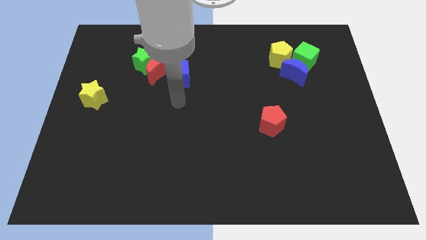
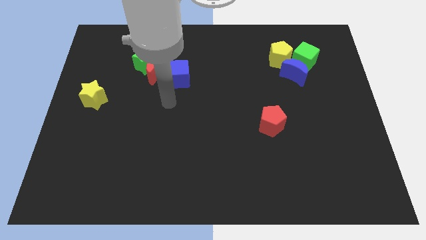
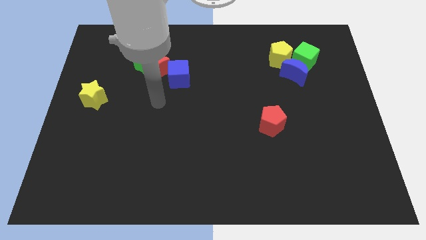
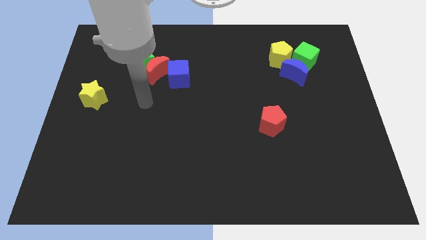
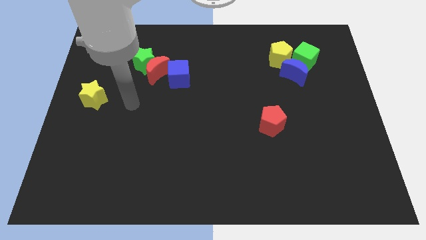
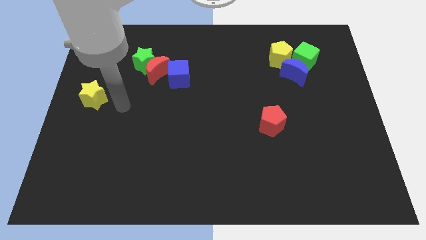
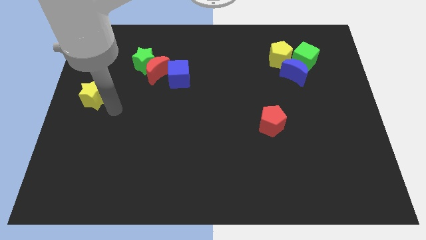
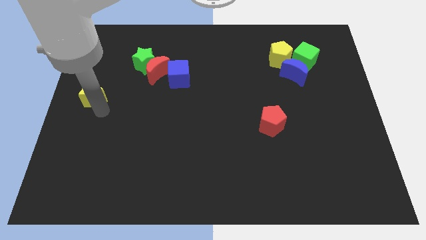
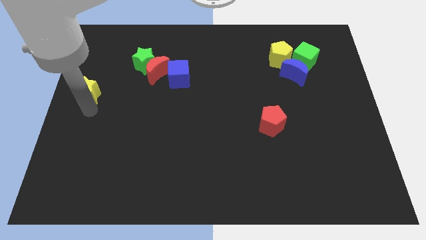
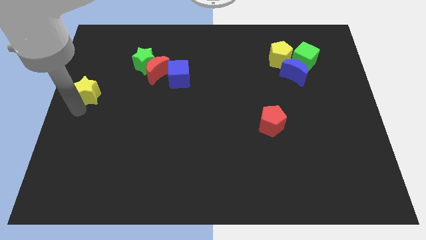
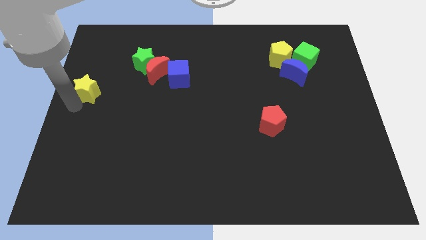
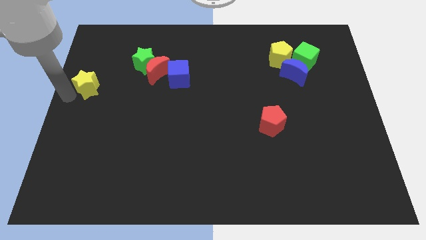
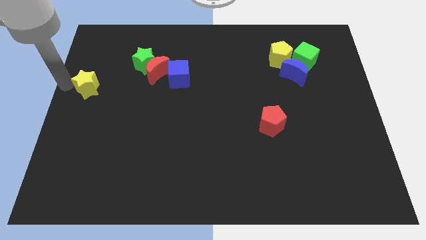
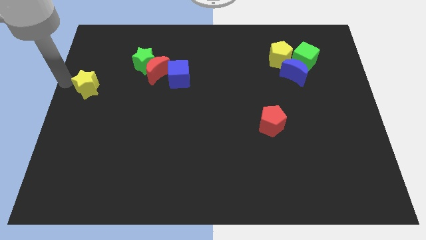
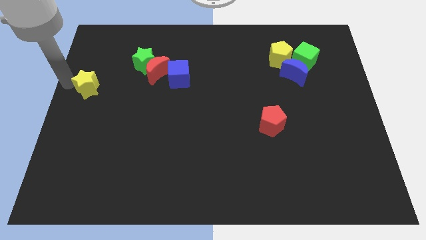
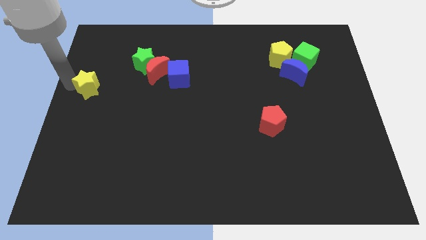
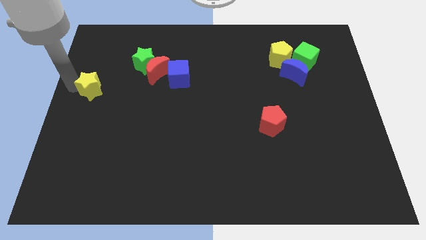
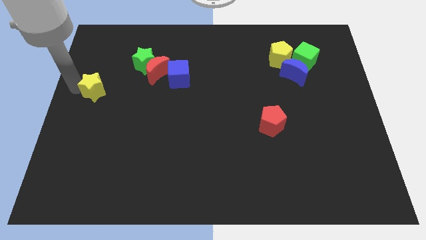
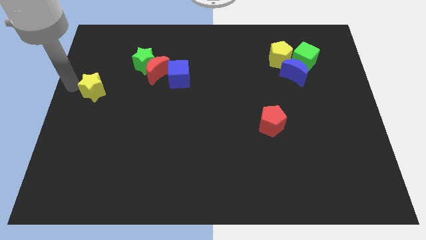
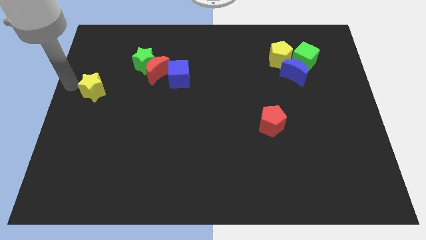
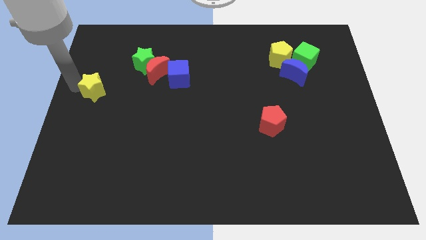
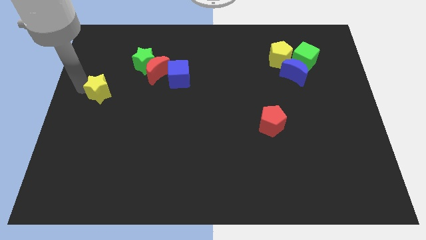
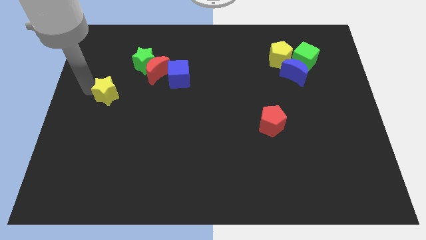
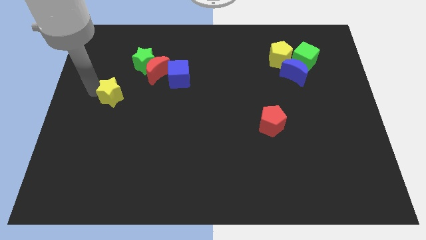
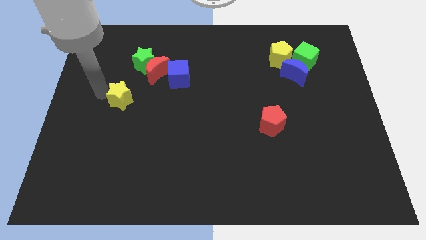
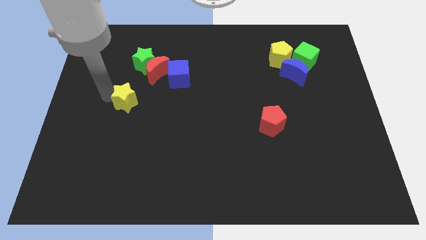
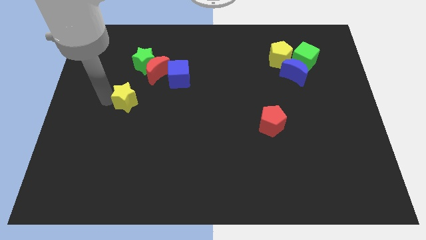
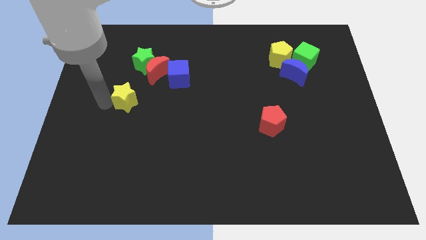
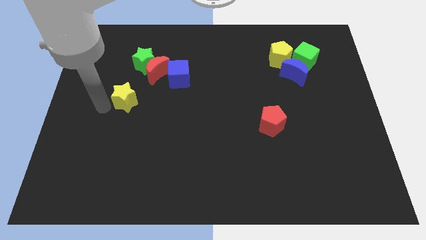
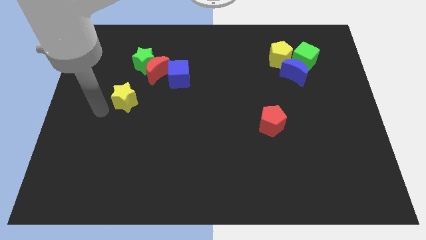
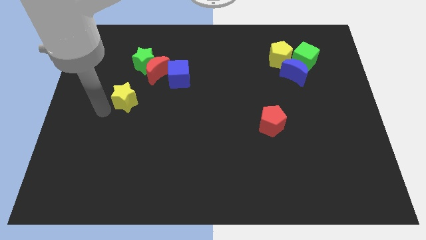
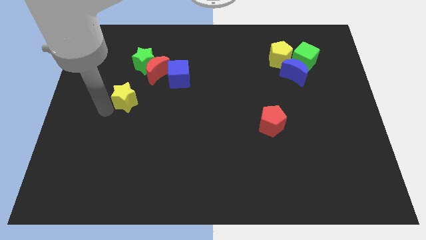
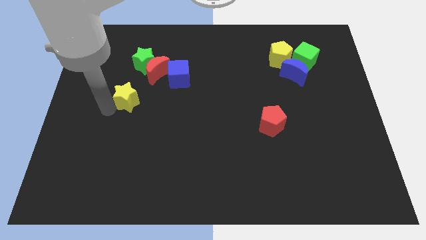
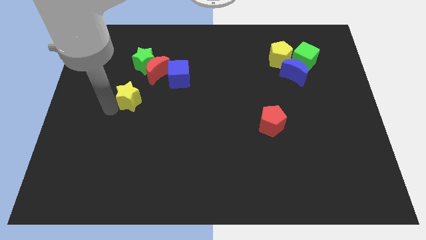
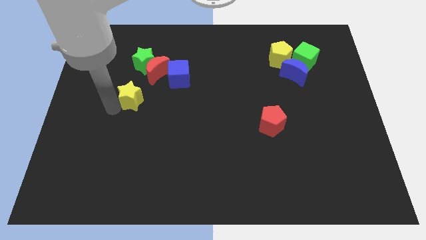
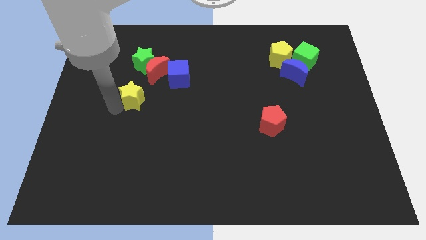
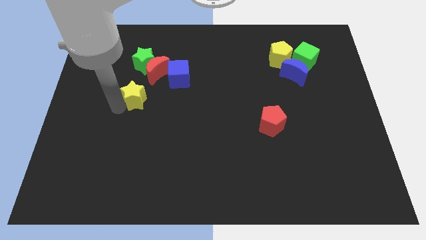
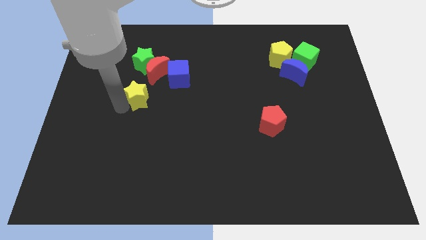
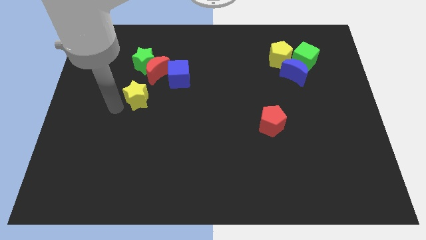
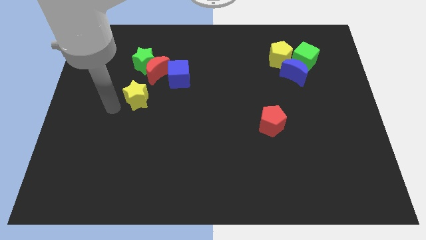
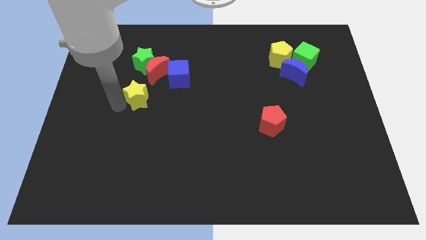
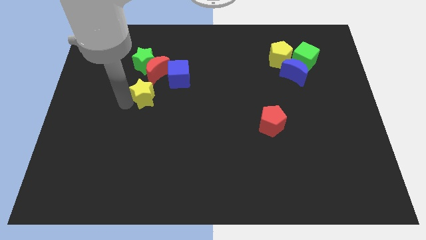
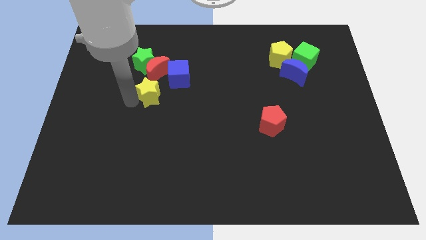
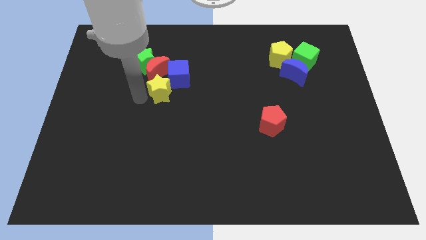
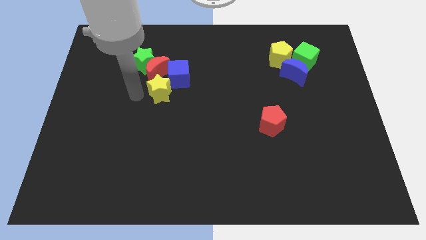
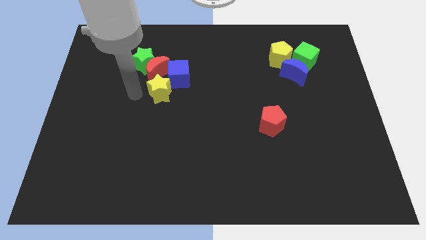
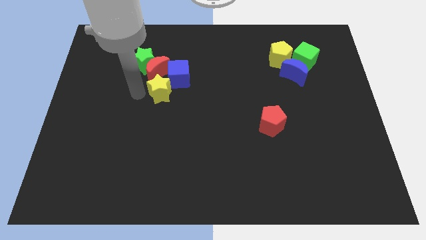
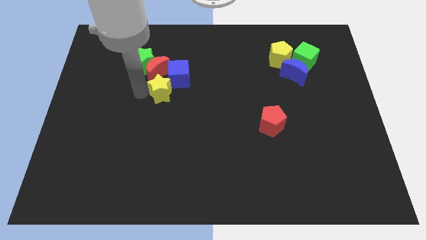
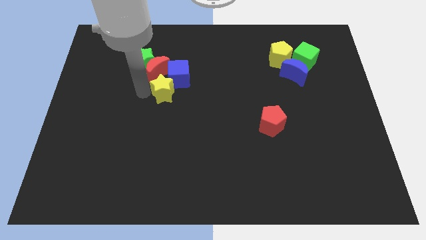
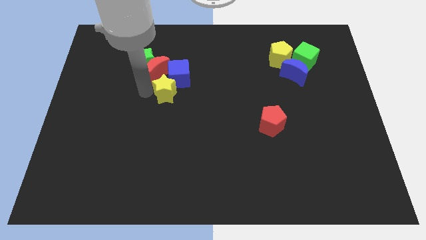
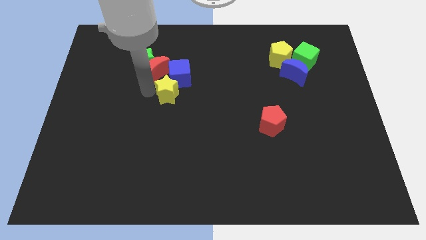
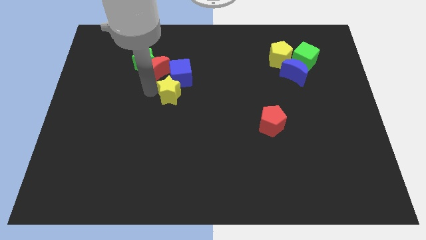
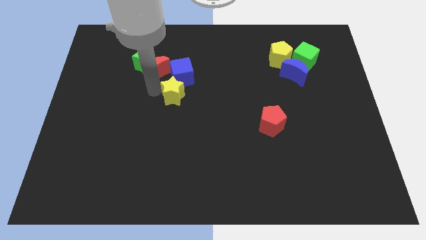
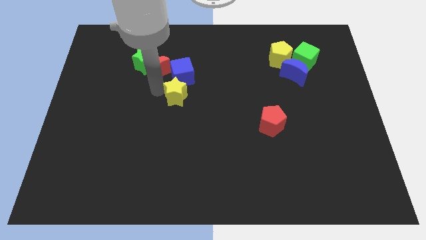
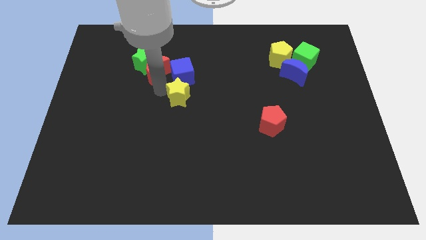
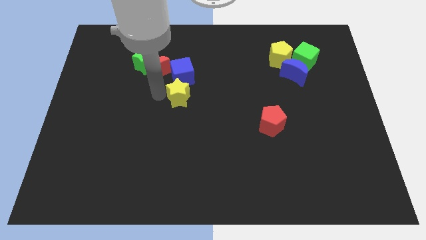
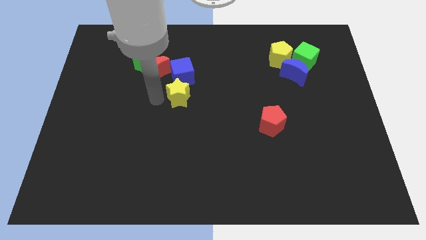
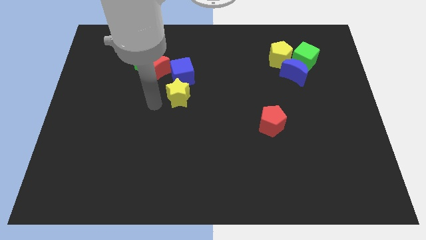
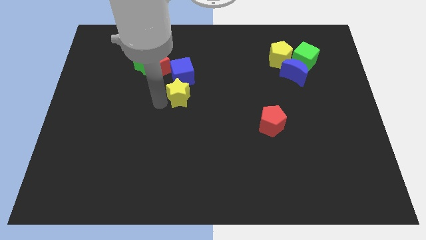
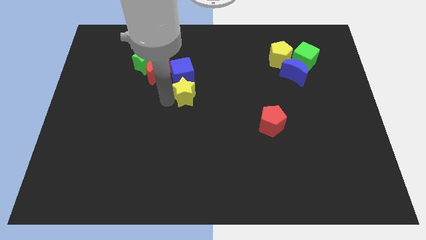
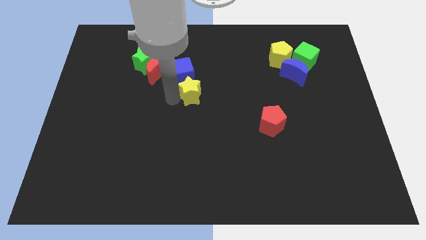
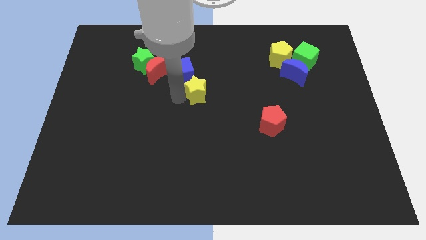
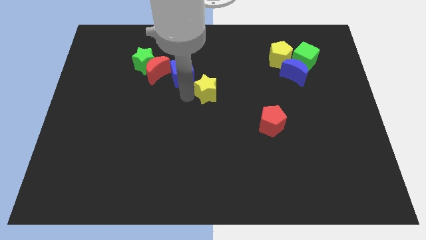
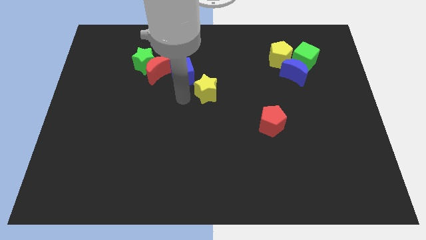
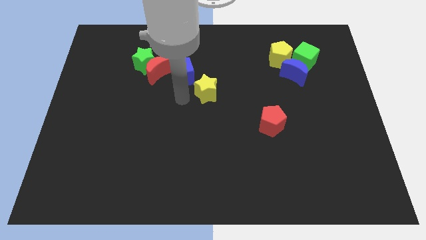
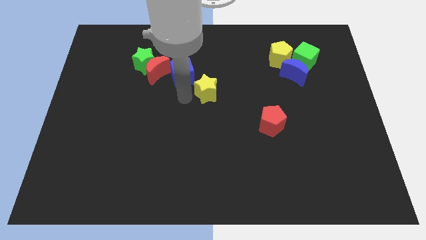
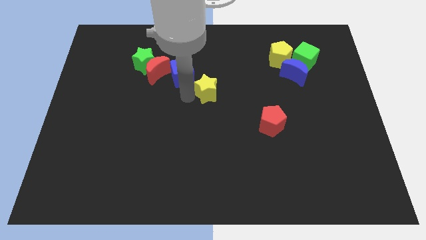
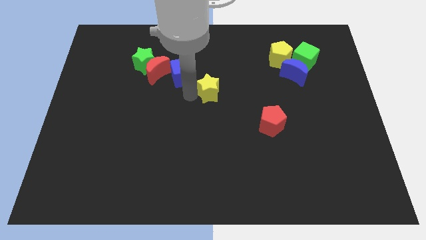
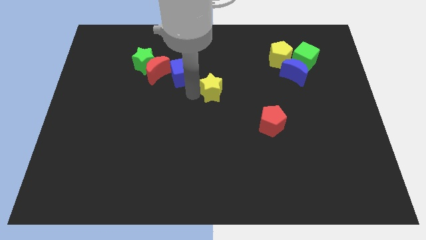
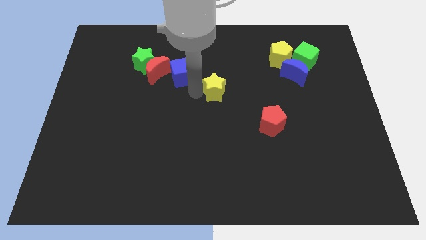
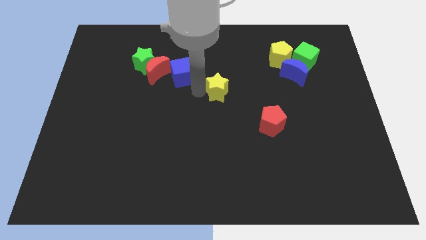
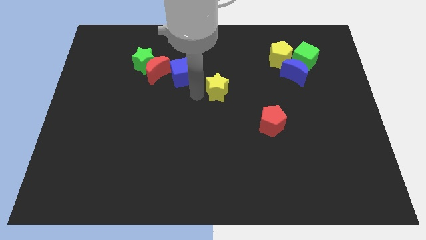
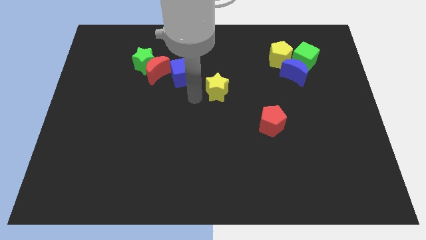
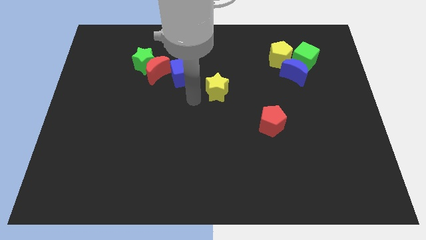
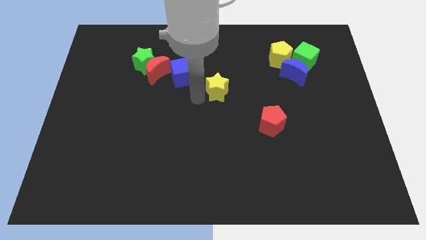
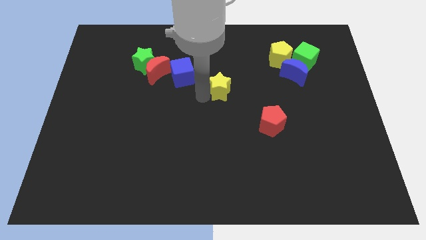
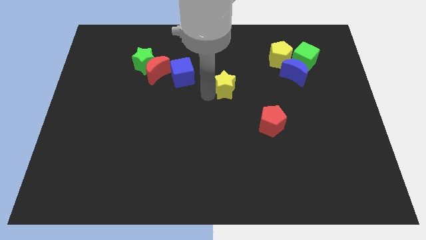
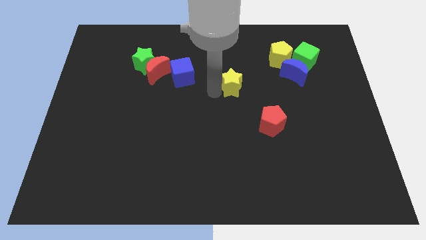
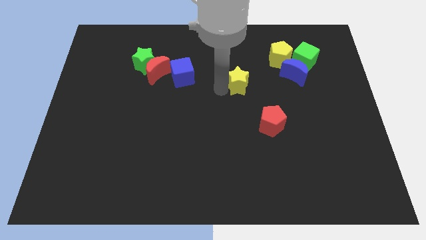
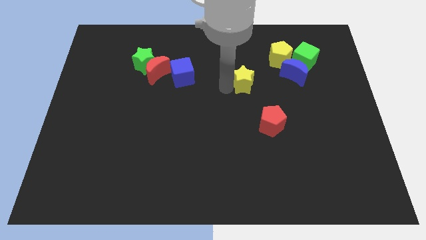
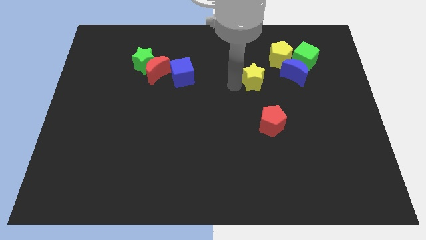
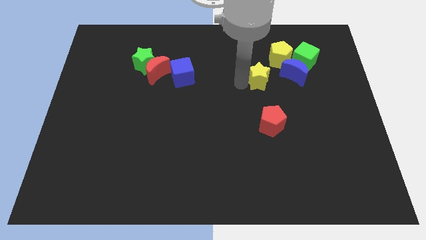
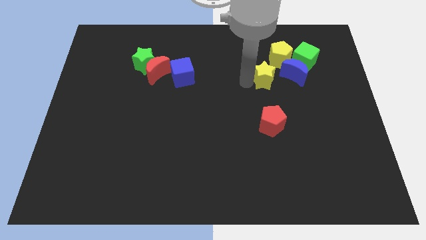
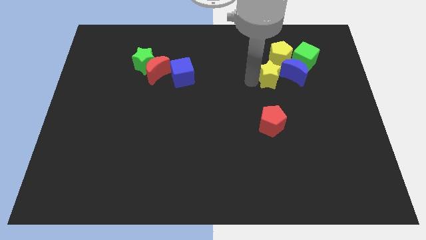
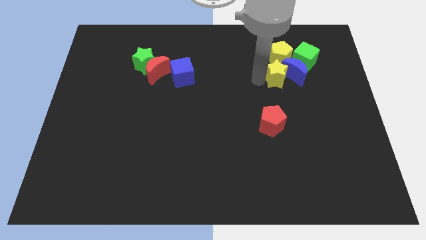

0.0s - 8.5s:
push the yellow star next to the blue moon
